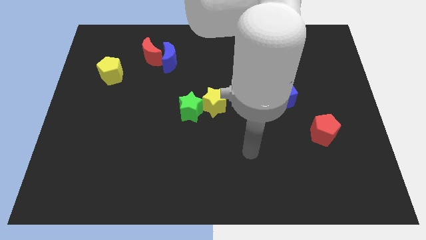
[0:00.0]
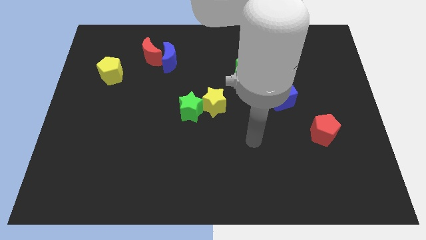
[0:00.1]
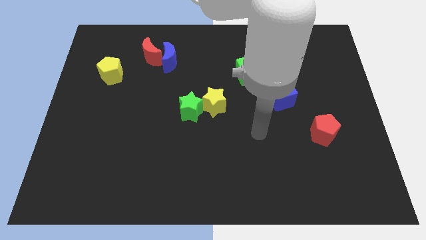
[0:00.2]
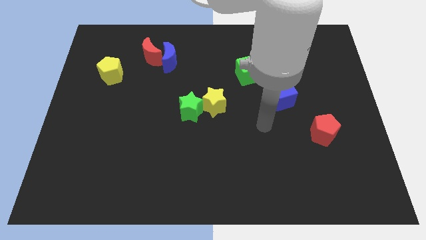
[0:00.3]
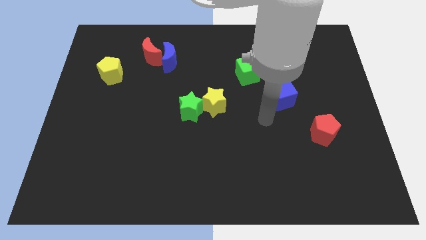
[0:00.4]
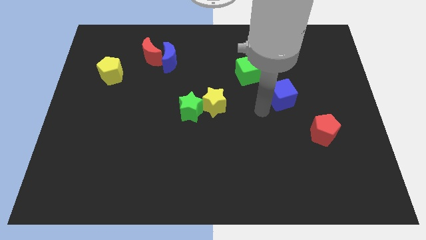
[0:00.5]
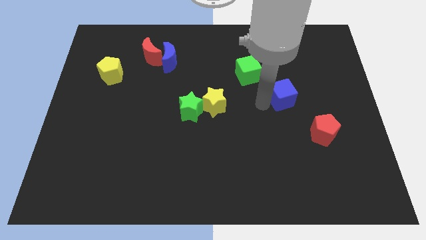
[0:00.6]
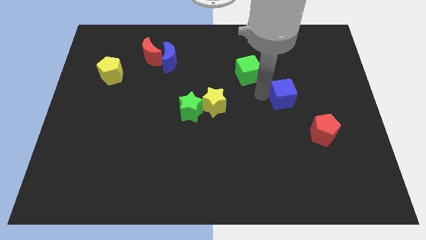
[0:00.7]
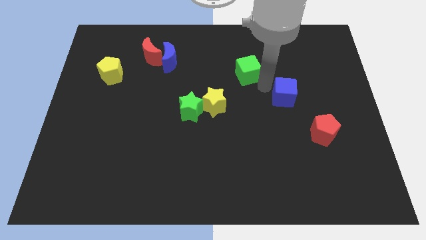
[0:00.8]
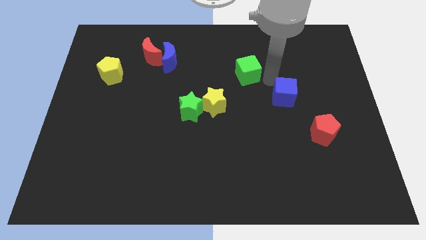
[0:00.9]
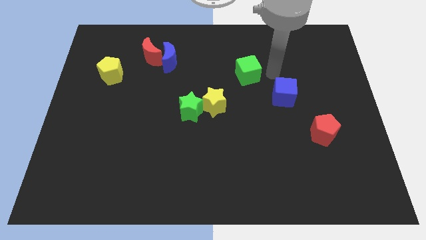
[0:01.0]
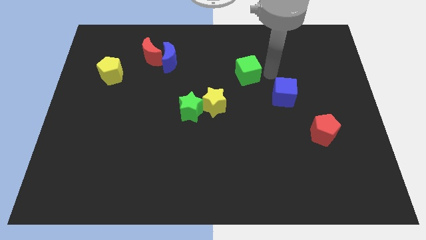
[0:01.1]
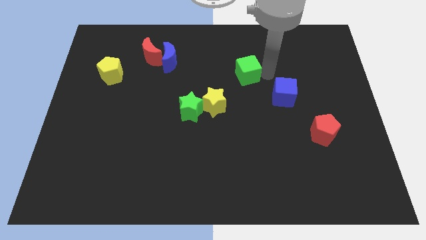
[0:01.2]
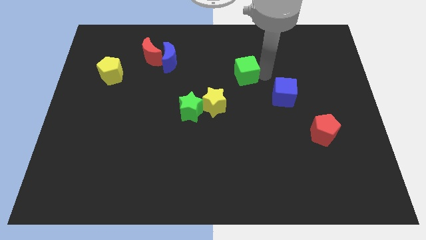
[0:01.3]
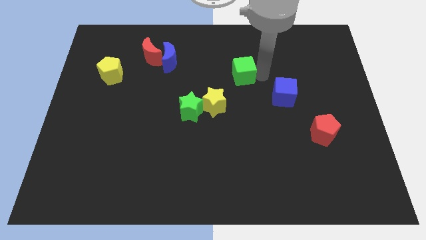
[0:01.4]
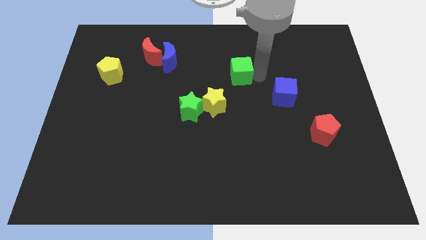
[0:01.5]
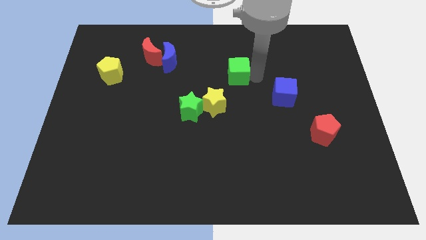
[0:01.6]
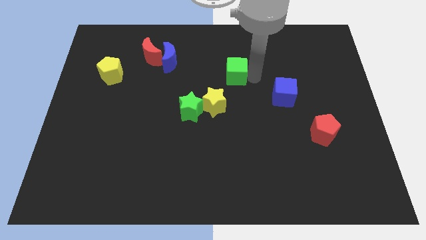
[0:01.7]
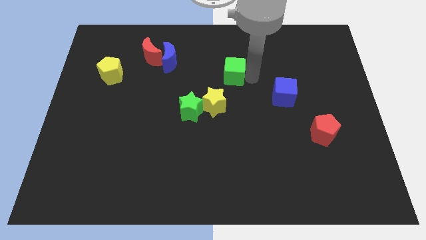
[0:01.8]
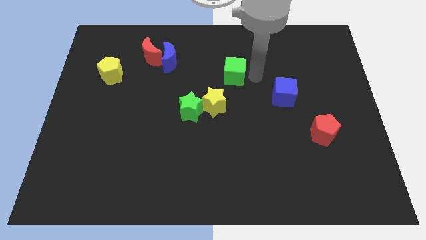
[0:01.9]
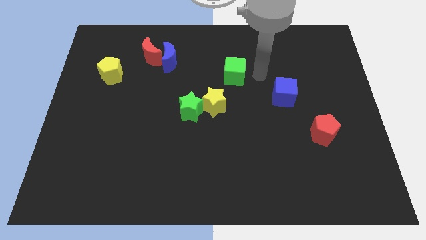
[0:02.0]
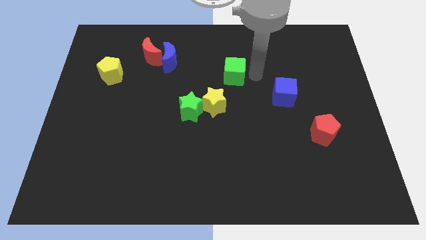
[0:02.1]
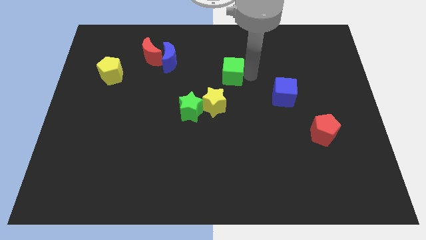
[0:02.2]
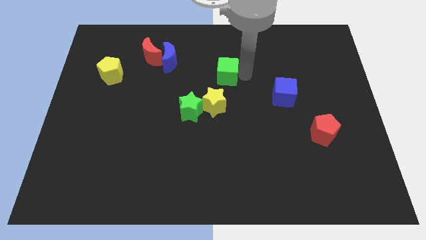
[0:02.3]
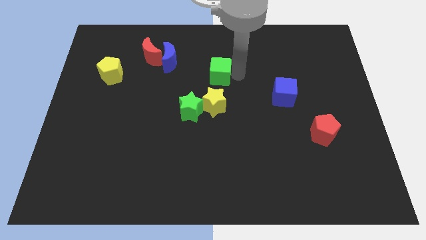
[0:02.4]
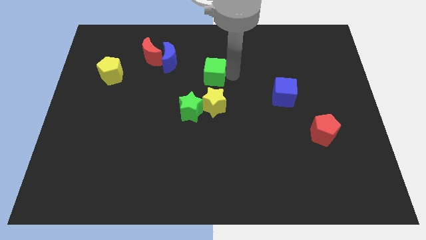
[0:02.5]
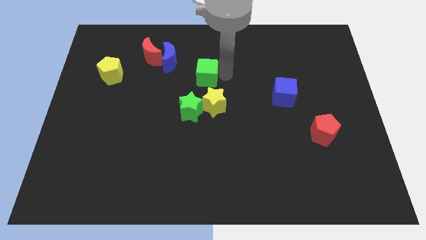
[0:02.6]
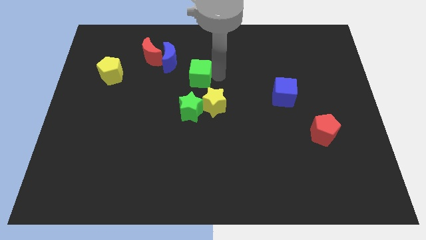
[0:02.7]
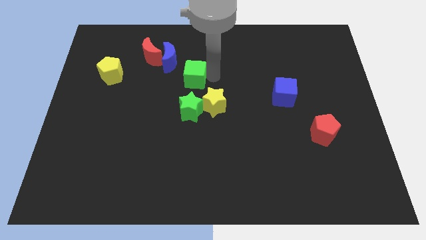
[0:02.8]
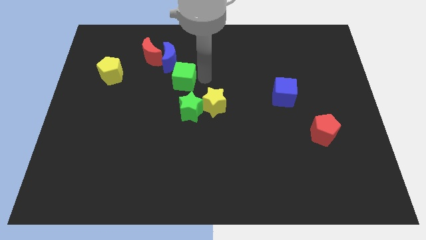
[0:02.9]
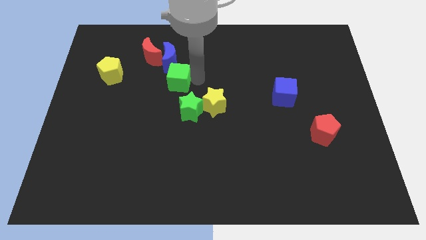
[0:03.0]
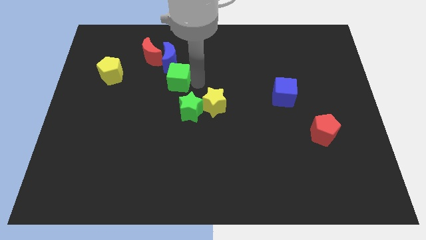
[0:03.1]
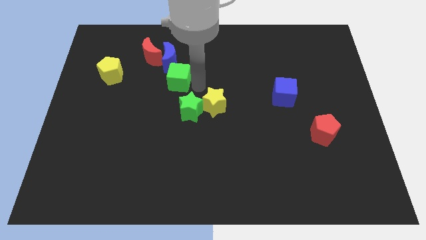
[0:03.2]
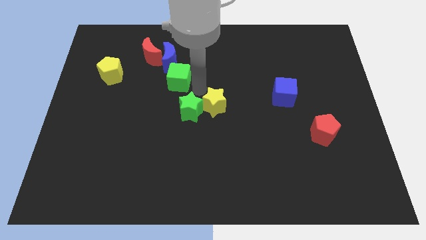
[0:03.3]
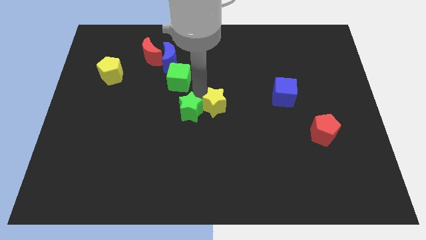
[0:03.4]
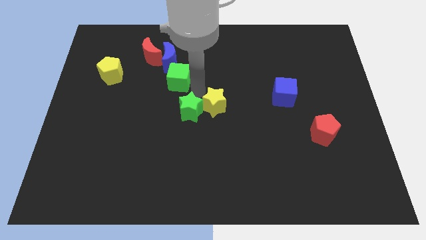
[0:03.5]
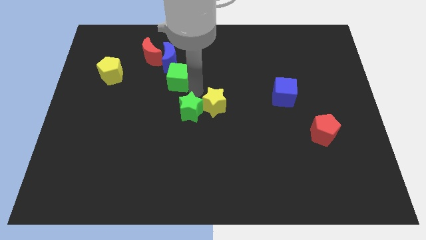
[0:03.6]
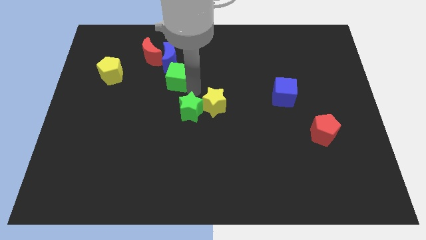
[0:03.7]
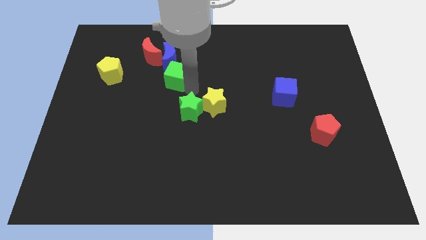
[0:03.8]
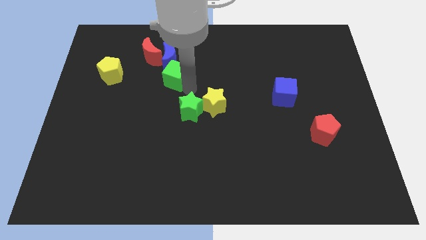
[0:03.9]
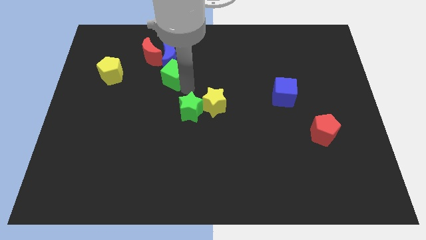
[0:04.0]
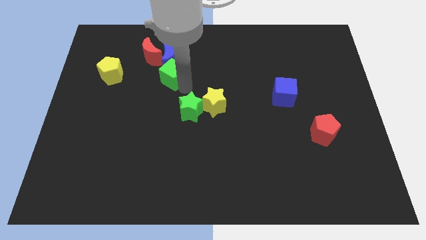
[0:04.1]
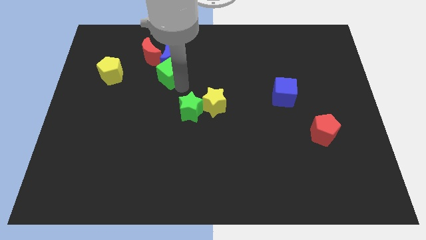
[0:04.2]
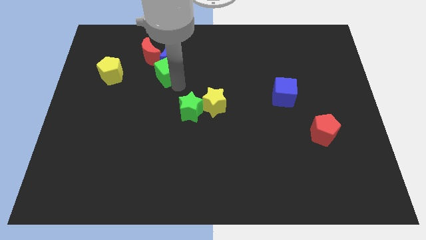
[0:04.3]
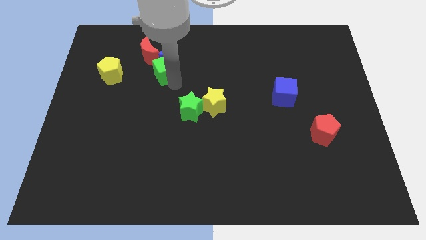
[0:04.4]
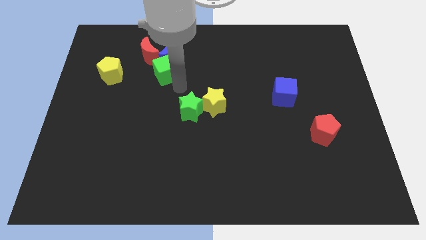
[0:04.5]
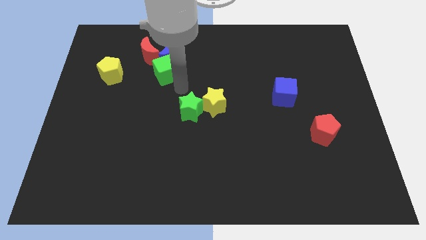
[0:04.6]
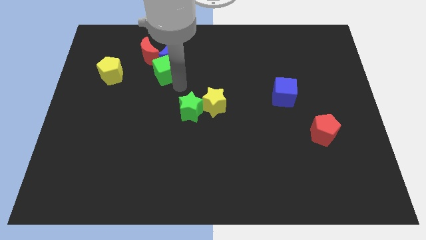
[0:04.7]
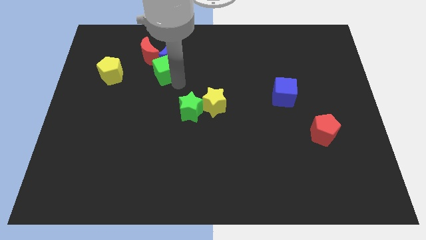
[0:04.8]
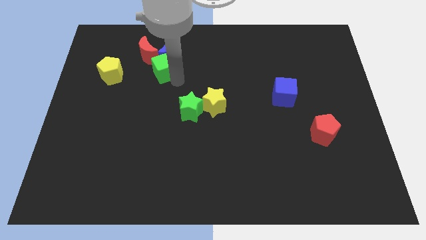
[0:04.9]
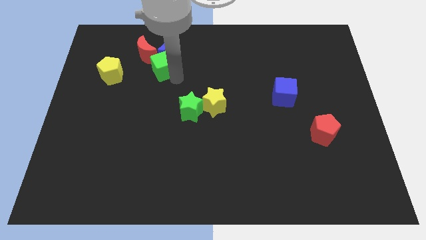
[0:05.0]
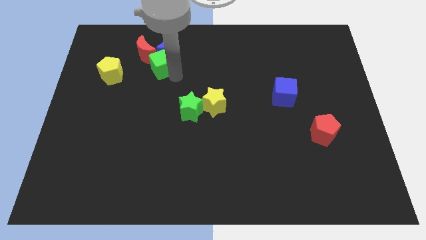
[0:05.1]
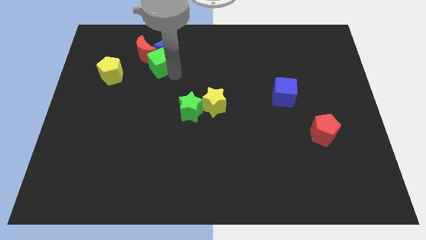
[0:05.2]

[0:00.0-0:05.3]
put the green cube next to the red moon

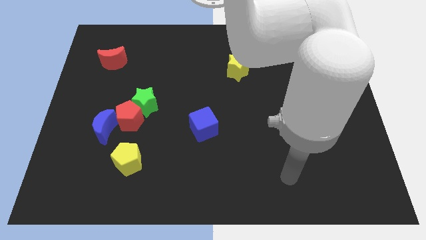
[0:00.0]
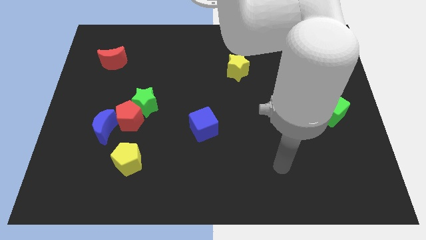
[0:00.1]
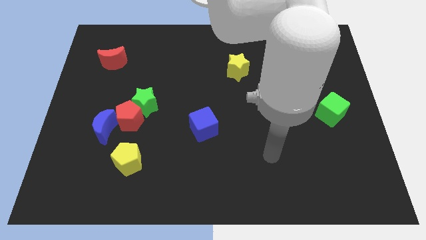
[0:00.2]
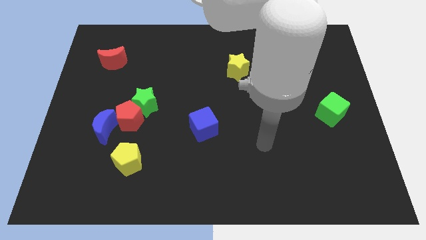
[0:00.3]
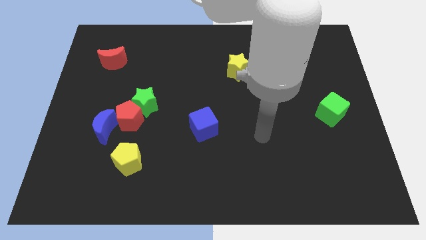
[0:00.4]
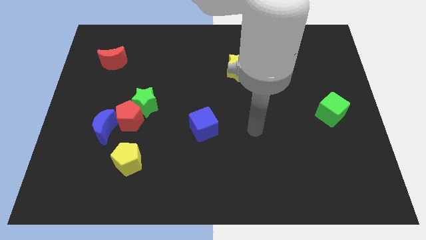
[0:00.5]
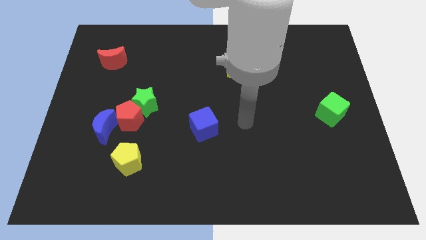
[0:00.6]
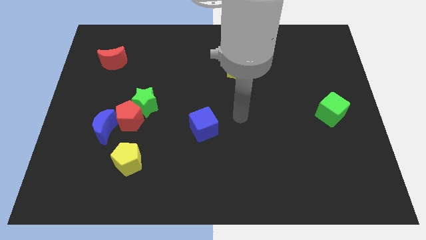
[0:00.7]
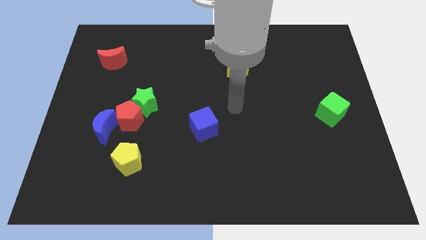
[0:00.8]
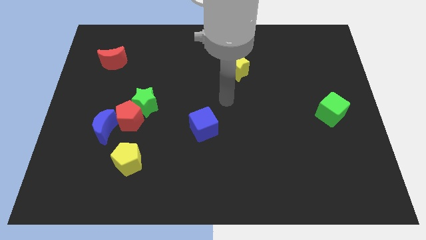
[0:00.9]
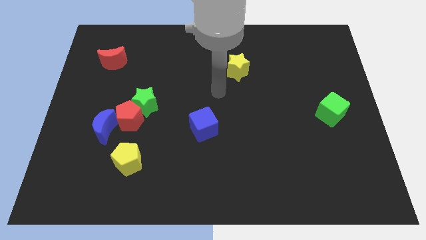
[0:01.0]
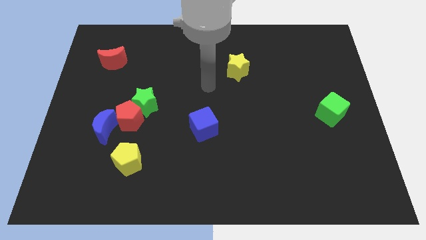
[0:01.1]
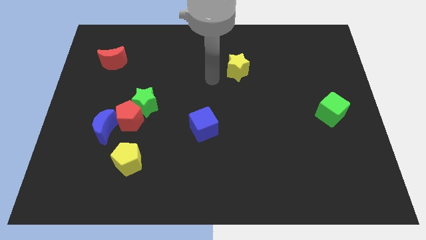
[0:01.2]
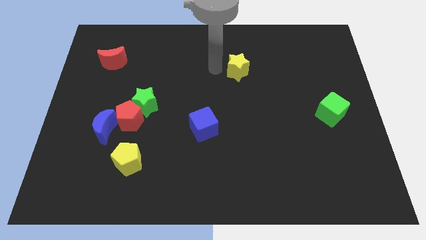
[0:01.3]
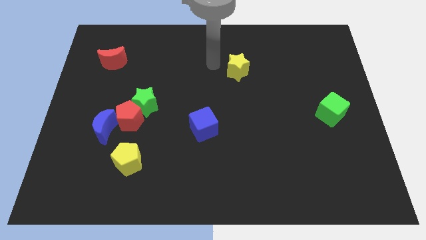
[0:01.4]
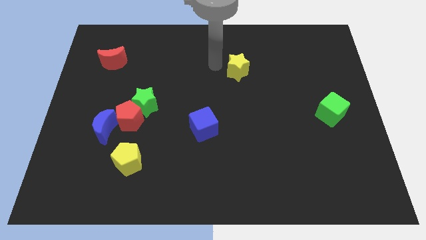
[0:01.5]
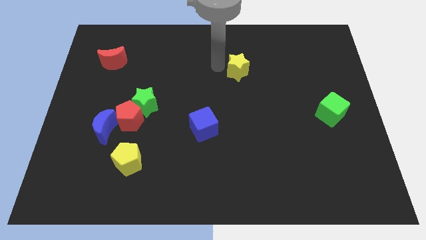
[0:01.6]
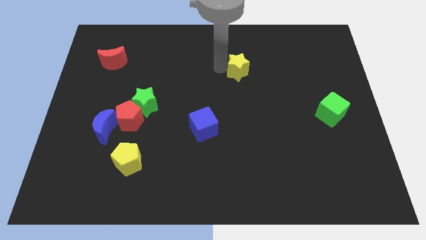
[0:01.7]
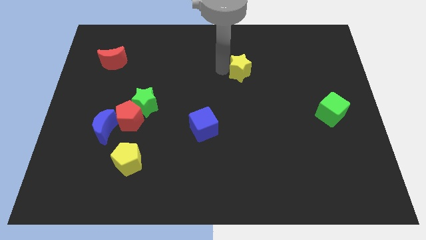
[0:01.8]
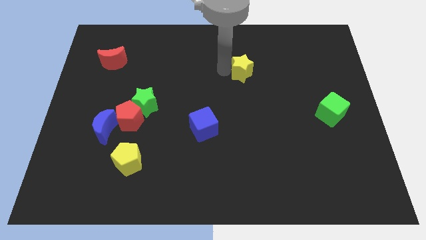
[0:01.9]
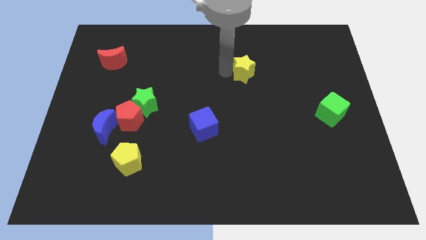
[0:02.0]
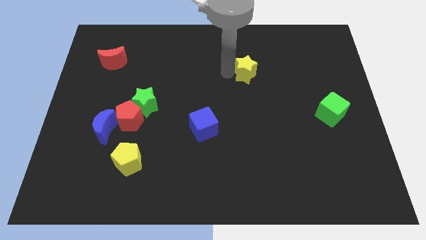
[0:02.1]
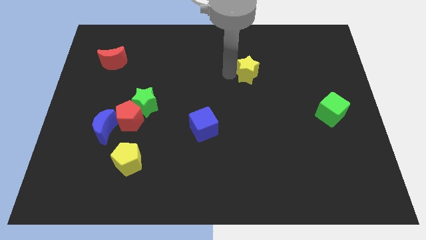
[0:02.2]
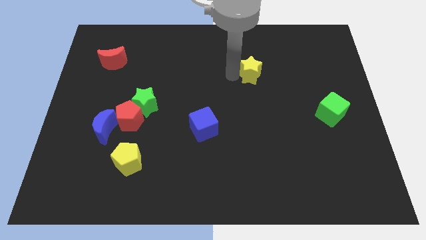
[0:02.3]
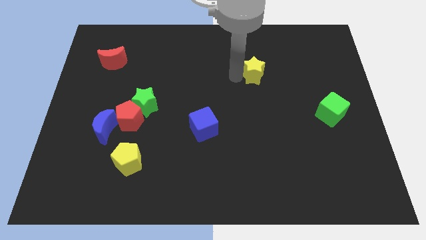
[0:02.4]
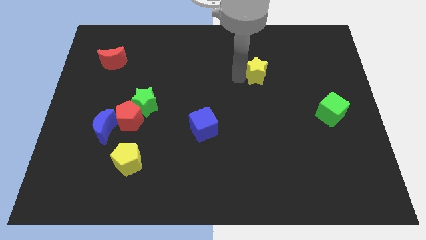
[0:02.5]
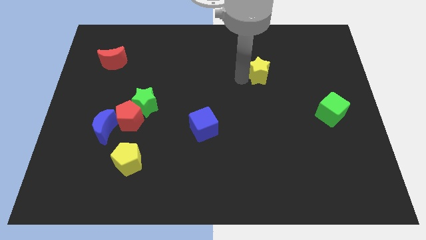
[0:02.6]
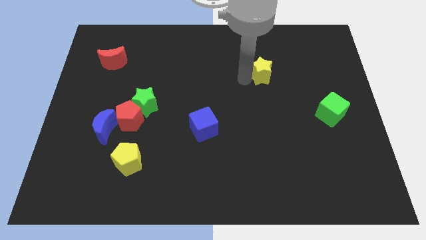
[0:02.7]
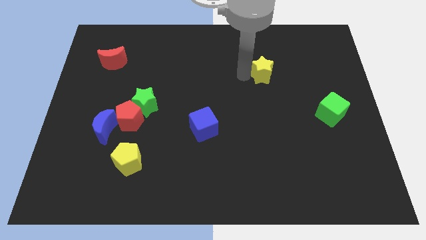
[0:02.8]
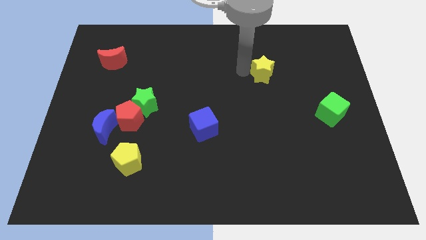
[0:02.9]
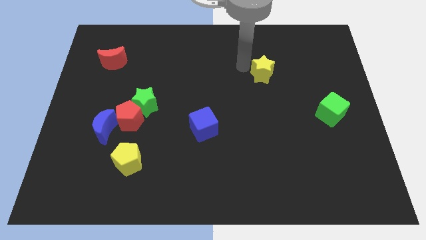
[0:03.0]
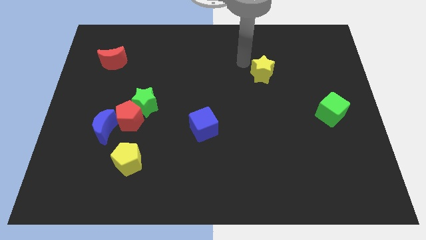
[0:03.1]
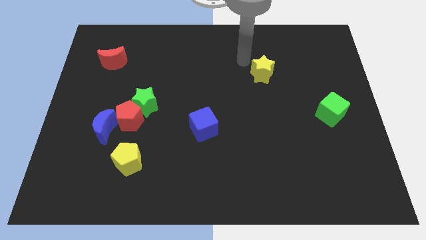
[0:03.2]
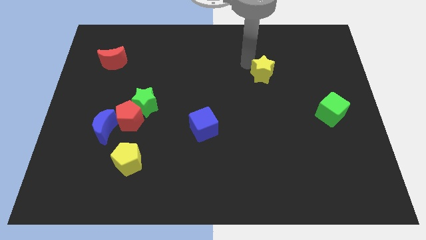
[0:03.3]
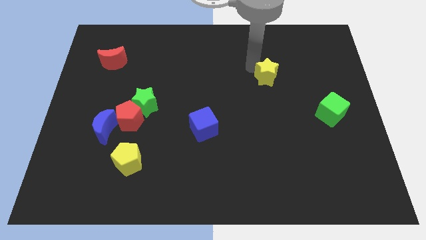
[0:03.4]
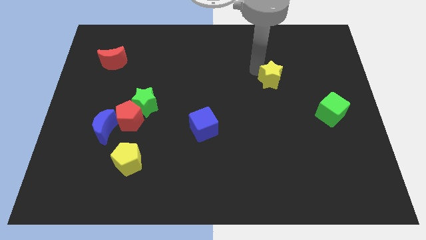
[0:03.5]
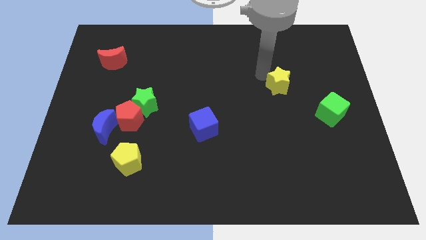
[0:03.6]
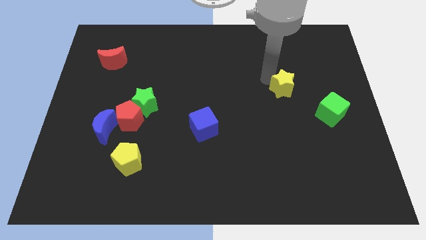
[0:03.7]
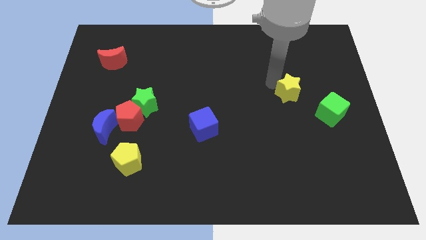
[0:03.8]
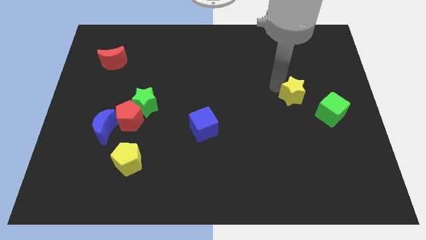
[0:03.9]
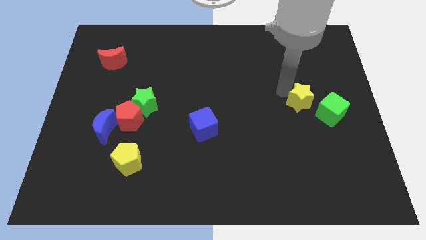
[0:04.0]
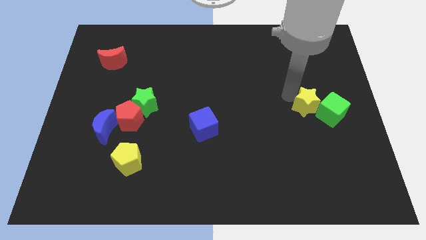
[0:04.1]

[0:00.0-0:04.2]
slide the yellow star next to the green cube
